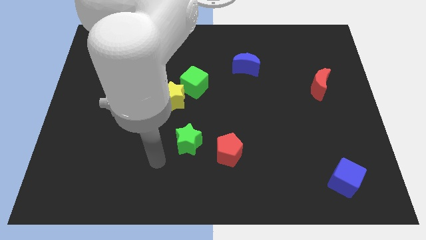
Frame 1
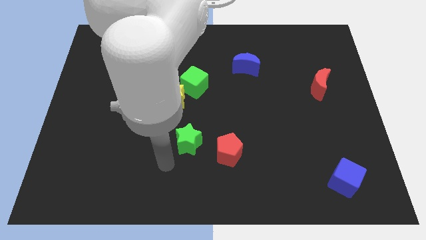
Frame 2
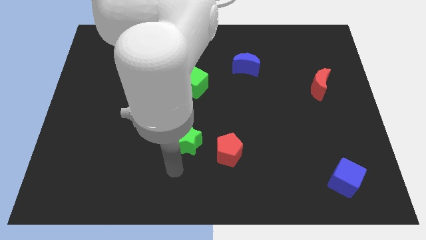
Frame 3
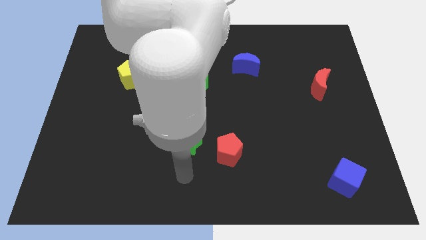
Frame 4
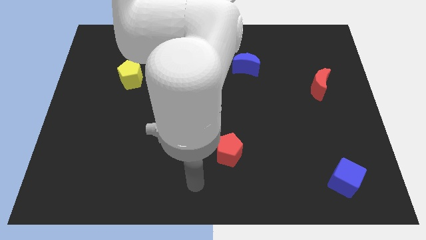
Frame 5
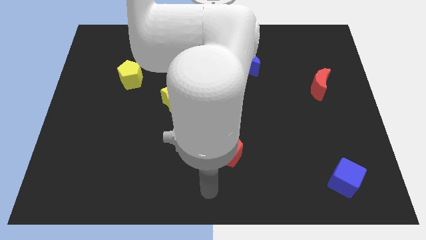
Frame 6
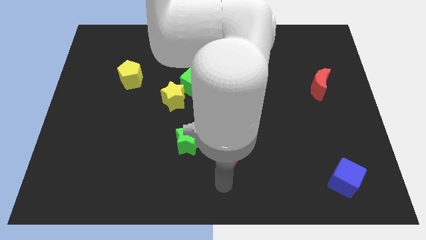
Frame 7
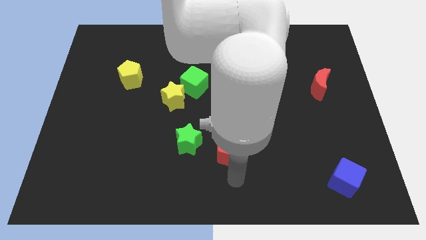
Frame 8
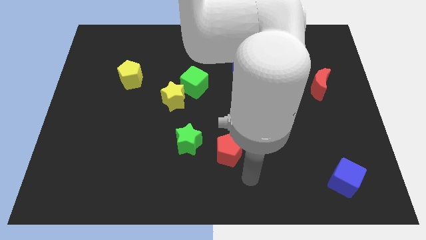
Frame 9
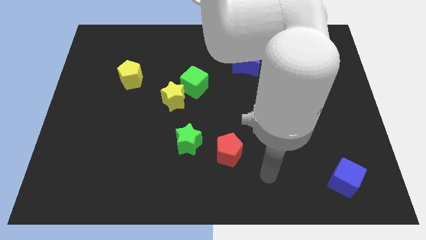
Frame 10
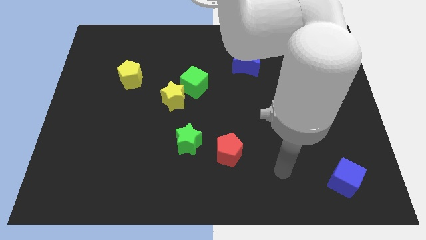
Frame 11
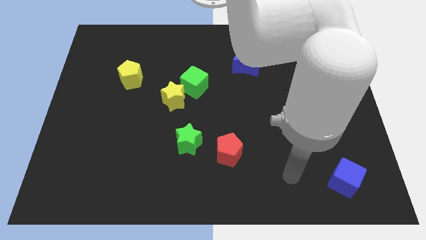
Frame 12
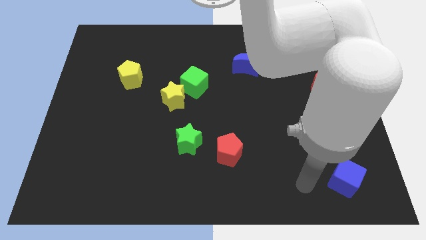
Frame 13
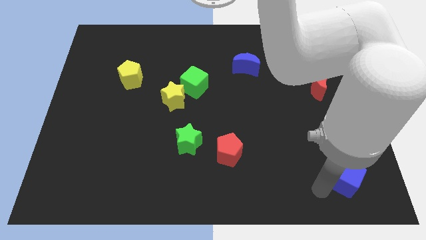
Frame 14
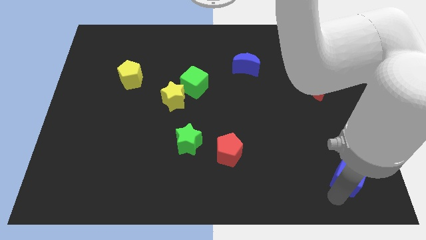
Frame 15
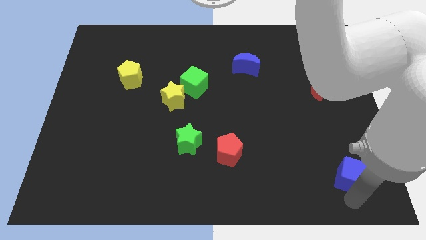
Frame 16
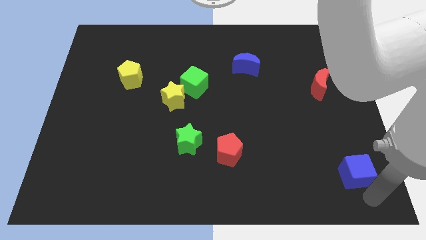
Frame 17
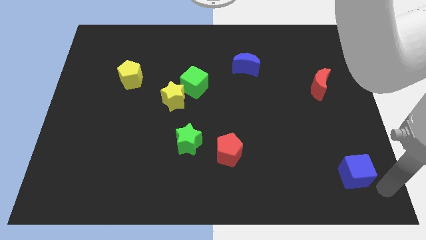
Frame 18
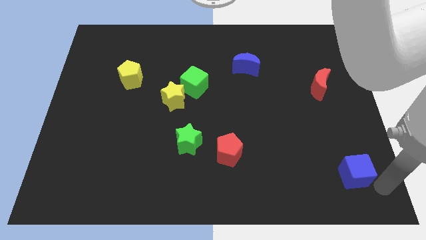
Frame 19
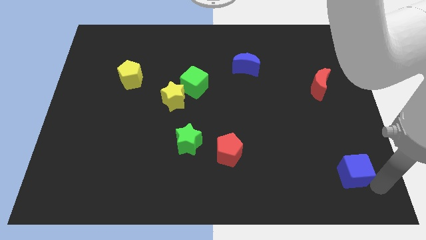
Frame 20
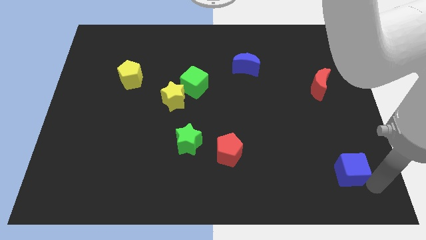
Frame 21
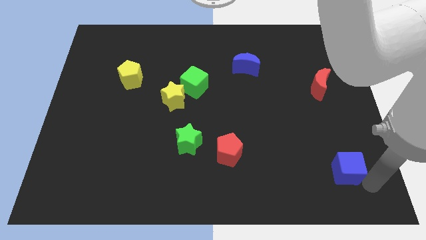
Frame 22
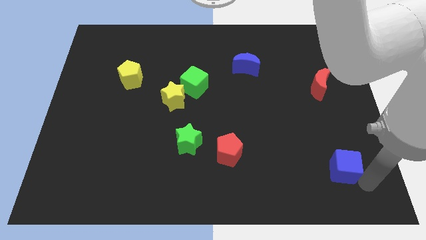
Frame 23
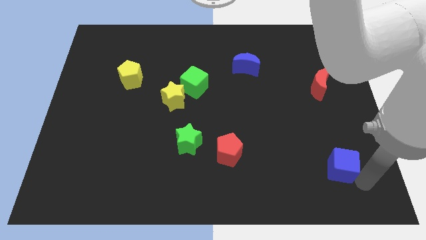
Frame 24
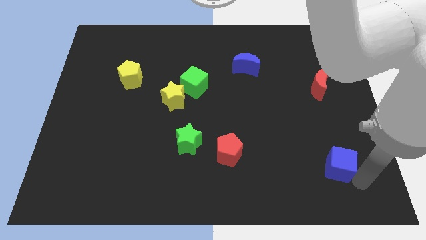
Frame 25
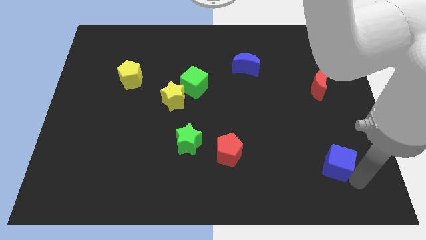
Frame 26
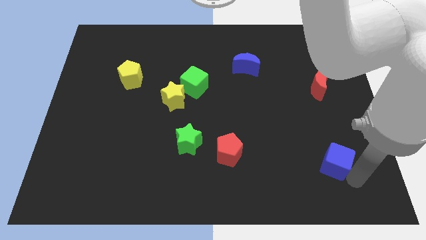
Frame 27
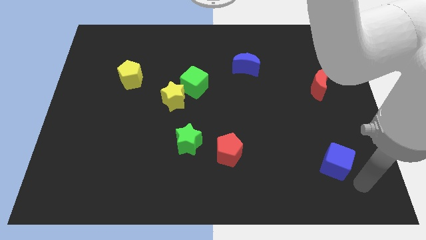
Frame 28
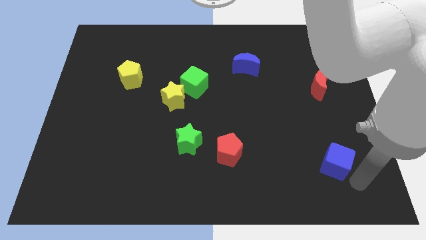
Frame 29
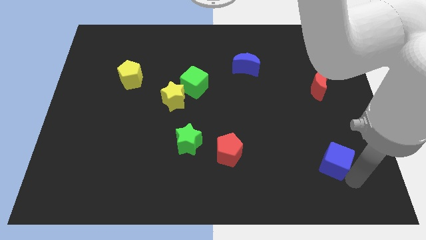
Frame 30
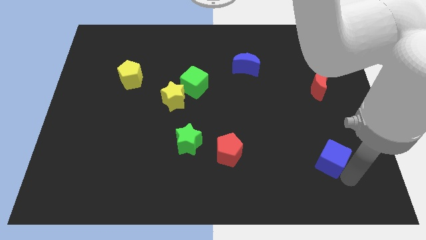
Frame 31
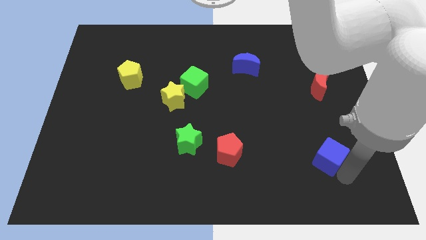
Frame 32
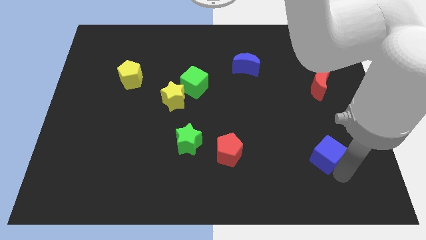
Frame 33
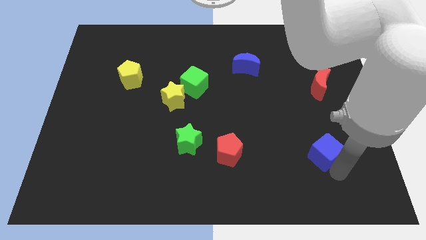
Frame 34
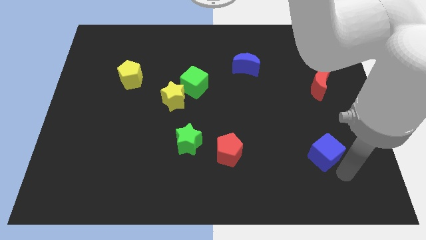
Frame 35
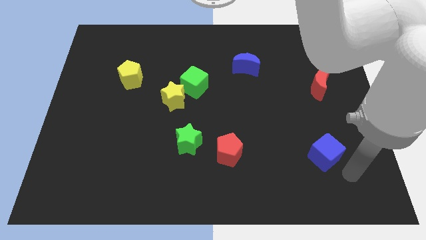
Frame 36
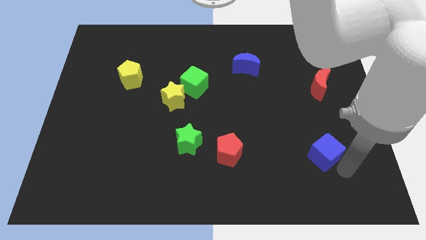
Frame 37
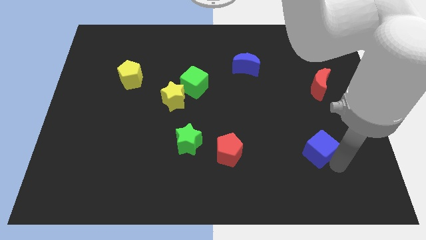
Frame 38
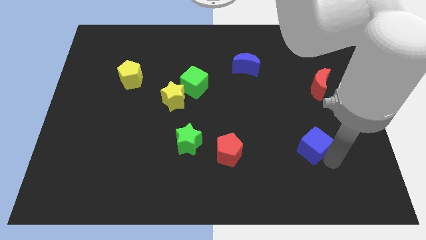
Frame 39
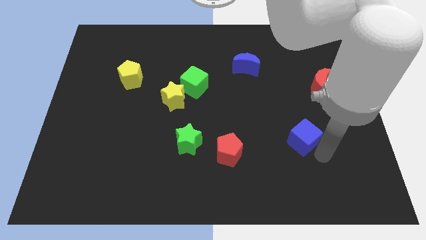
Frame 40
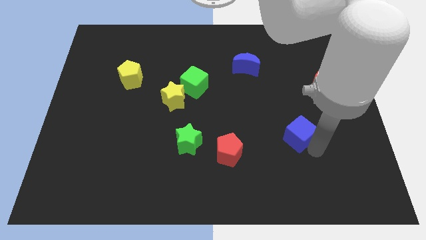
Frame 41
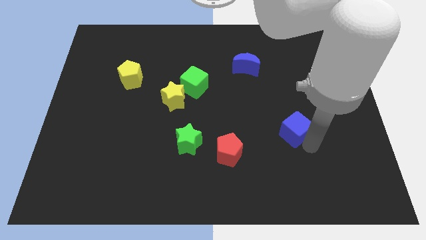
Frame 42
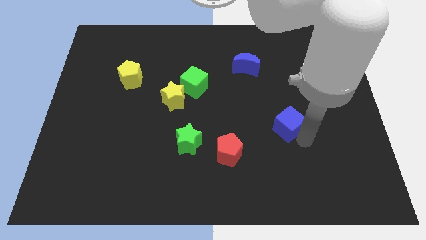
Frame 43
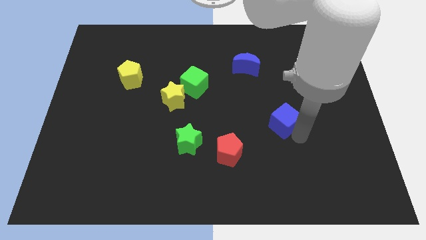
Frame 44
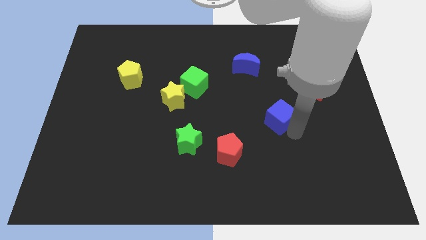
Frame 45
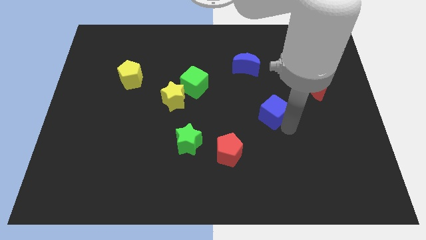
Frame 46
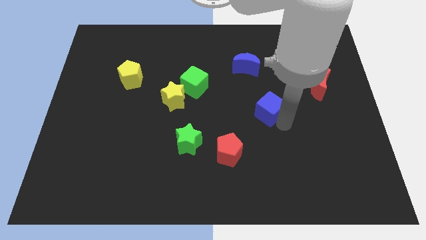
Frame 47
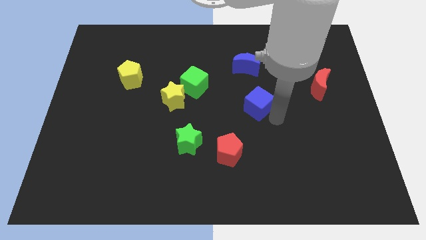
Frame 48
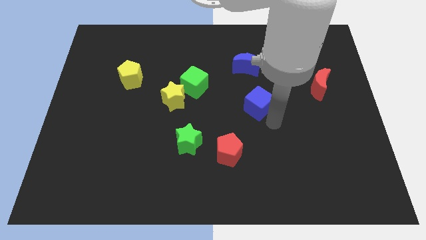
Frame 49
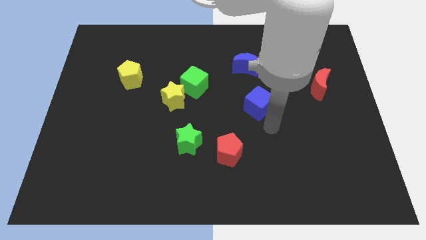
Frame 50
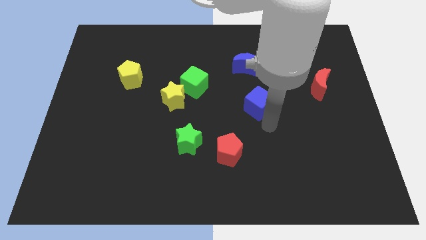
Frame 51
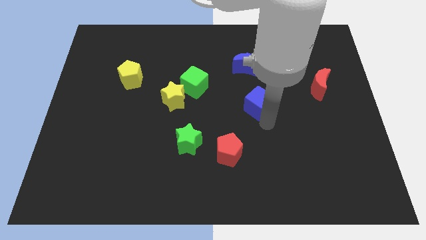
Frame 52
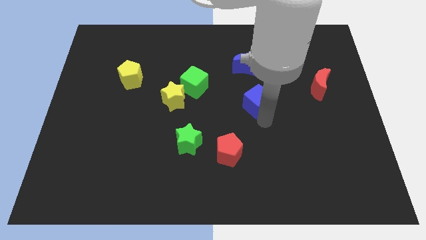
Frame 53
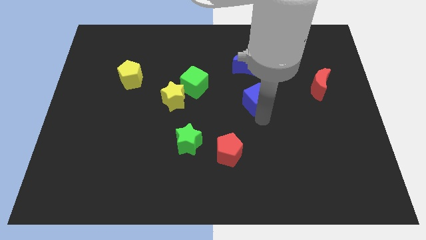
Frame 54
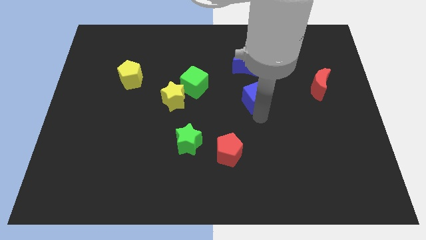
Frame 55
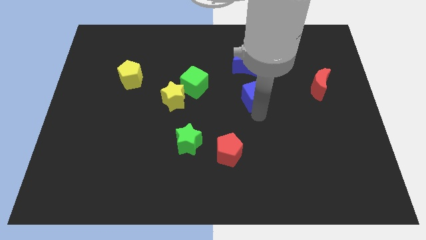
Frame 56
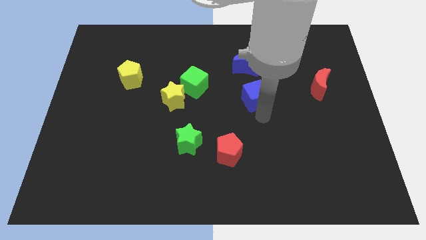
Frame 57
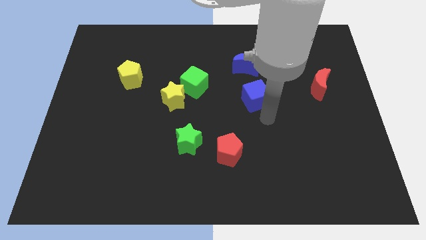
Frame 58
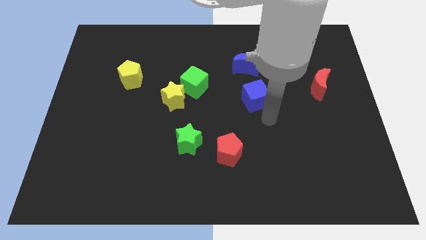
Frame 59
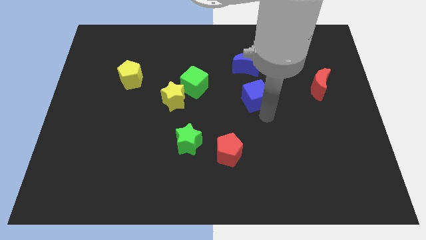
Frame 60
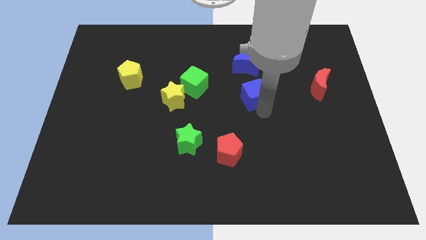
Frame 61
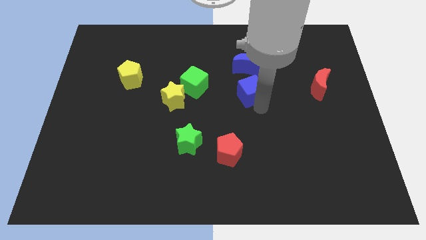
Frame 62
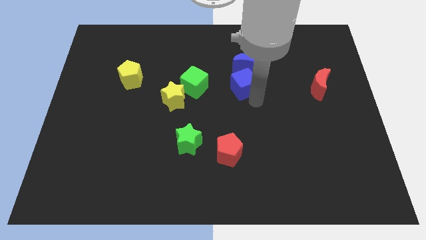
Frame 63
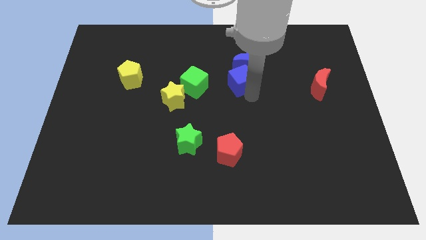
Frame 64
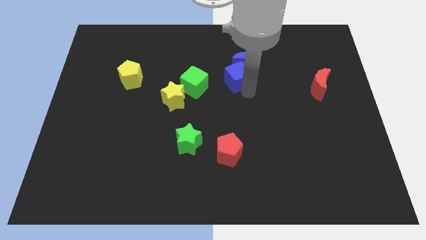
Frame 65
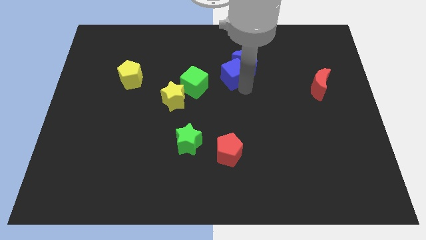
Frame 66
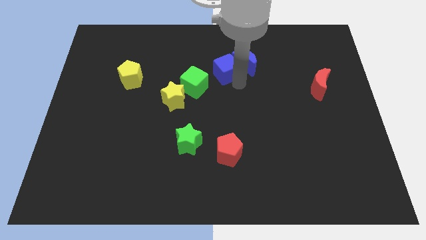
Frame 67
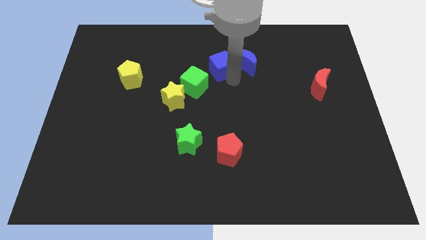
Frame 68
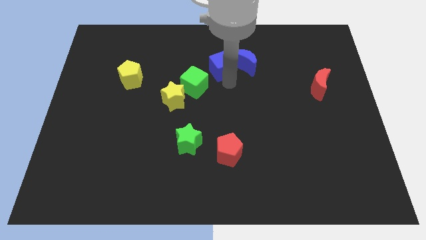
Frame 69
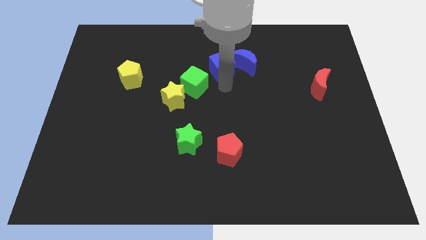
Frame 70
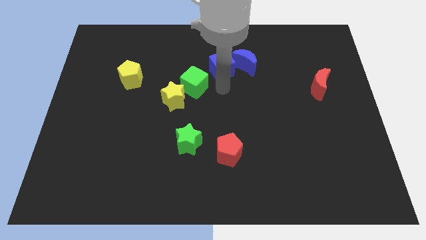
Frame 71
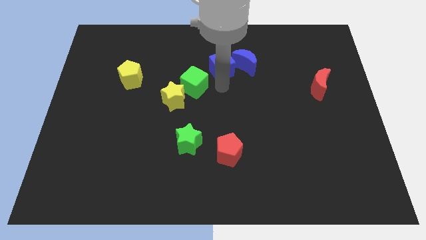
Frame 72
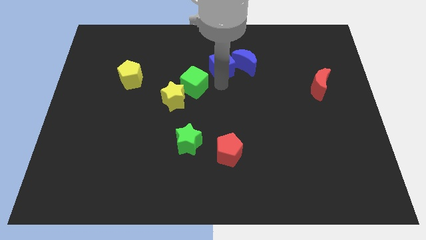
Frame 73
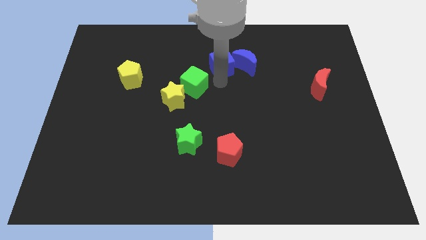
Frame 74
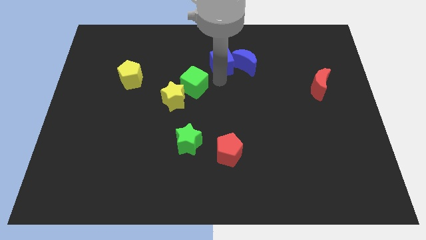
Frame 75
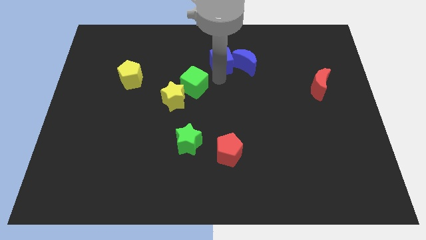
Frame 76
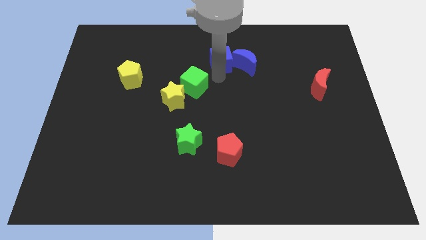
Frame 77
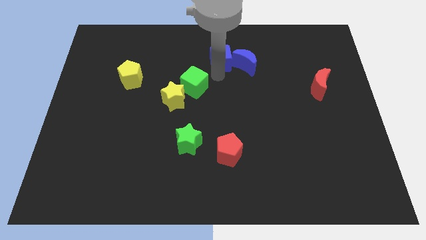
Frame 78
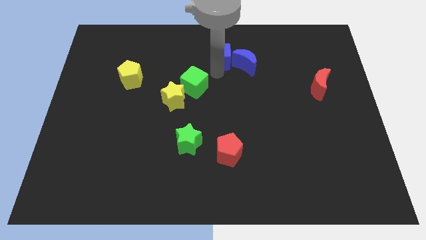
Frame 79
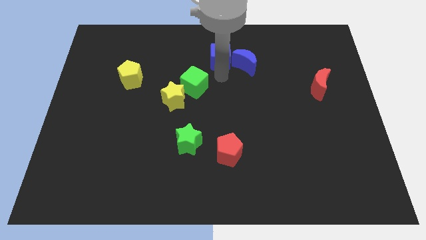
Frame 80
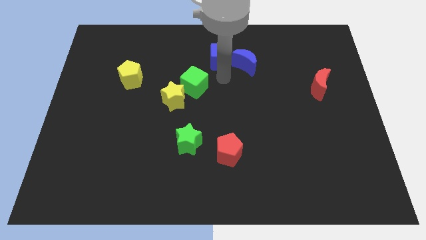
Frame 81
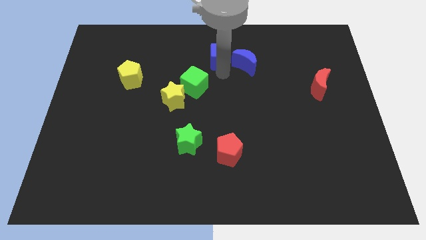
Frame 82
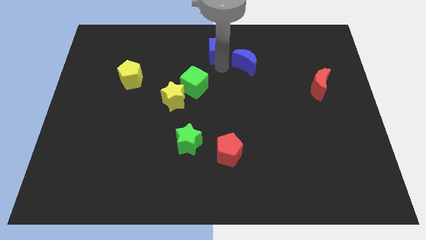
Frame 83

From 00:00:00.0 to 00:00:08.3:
move the blue cube to the top
